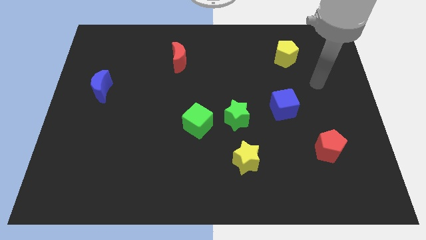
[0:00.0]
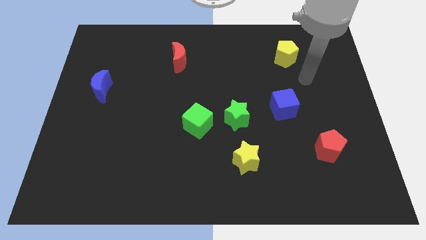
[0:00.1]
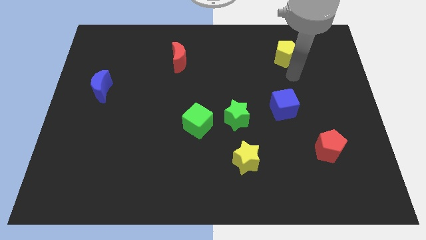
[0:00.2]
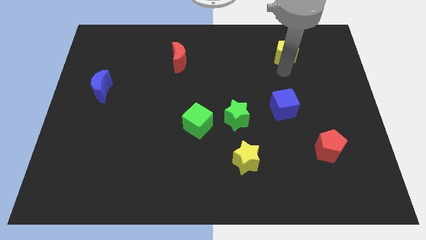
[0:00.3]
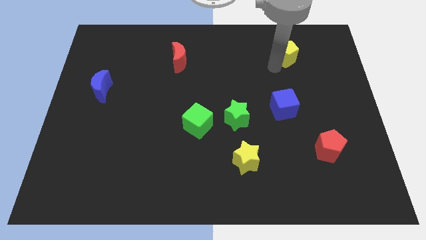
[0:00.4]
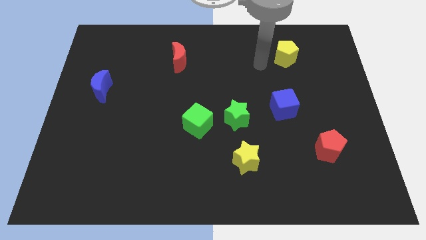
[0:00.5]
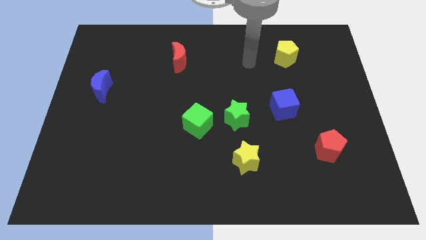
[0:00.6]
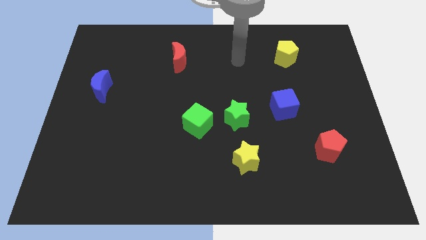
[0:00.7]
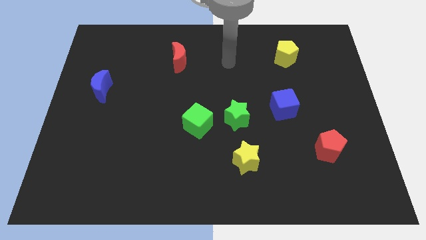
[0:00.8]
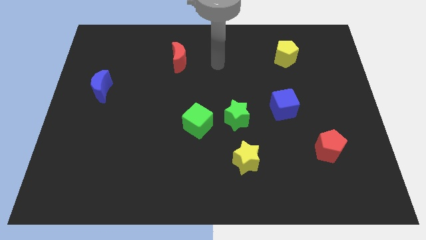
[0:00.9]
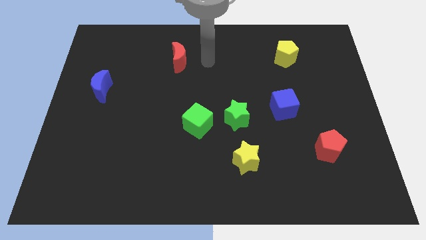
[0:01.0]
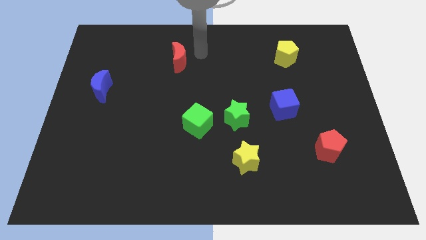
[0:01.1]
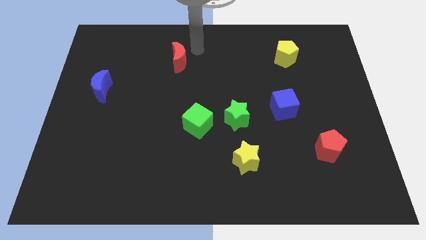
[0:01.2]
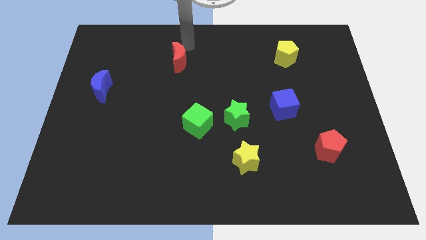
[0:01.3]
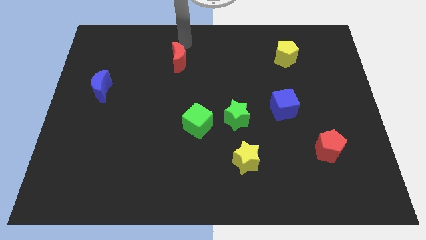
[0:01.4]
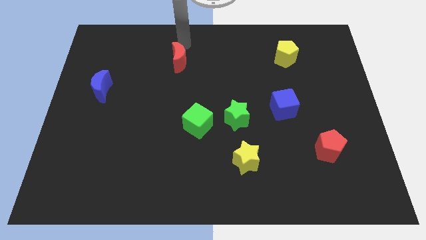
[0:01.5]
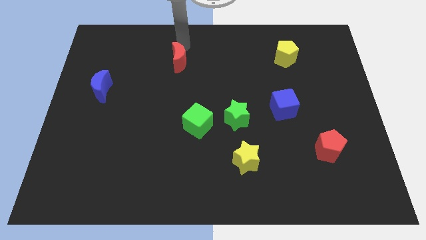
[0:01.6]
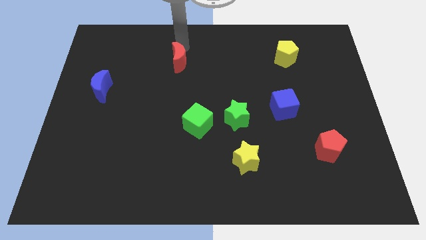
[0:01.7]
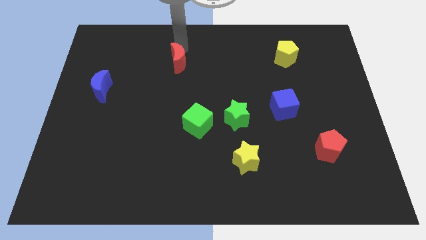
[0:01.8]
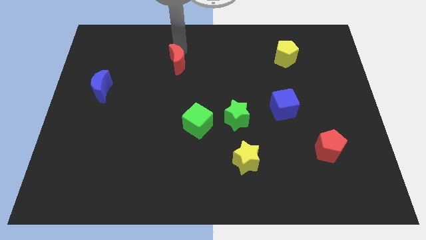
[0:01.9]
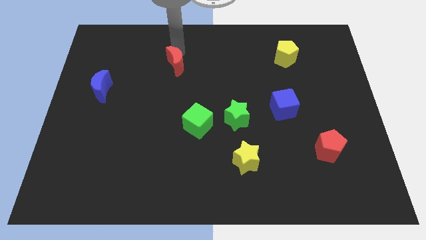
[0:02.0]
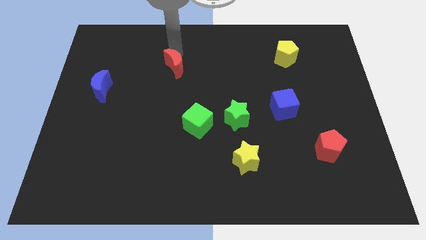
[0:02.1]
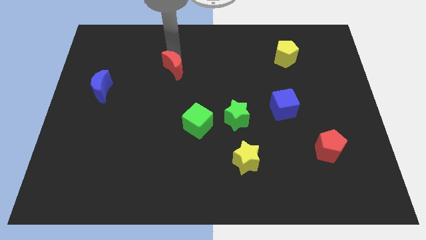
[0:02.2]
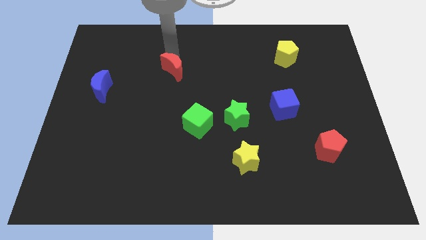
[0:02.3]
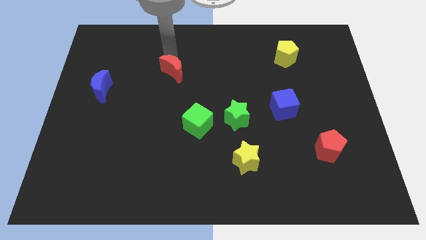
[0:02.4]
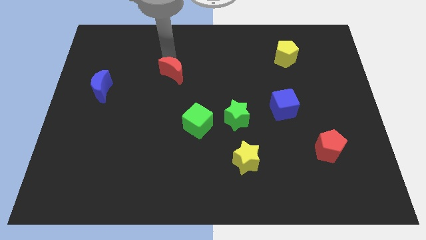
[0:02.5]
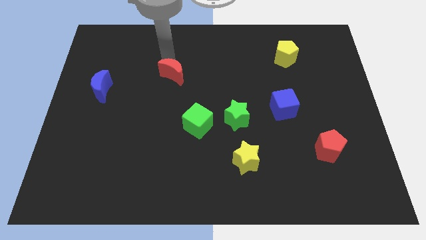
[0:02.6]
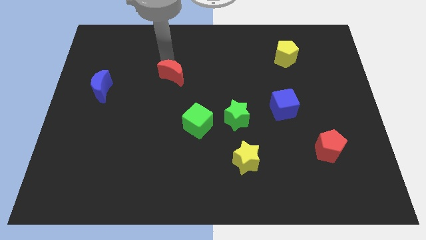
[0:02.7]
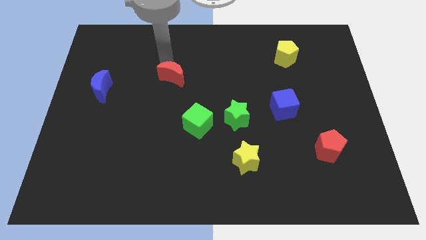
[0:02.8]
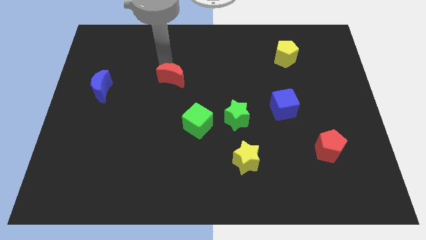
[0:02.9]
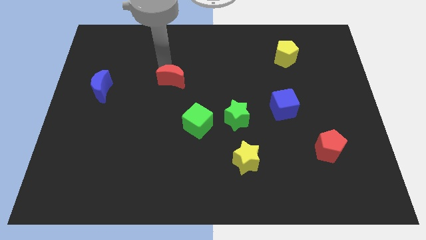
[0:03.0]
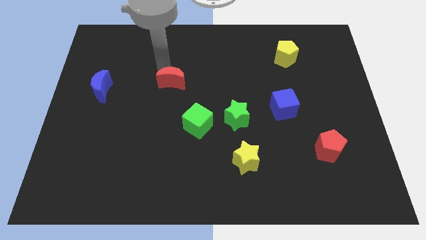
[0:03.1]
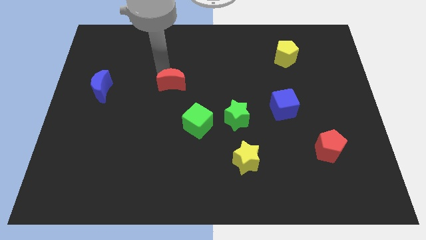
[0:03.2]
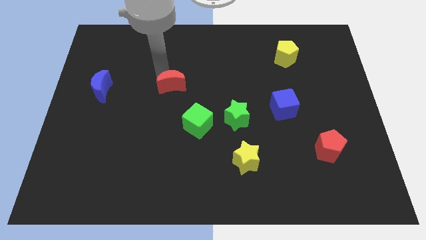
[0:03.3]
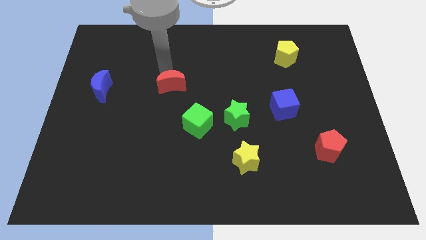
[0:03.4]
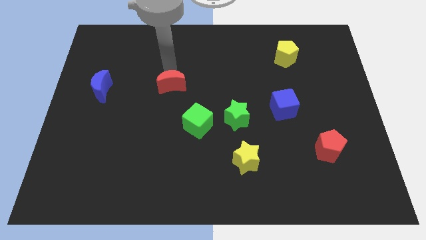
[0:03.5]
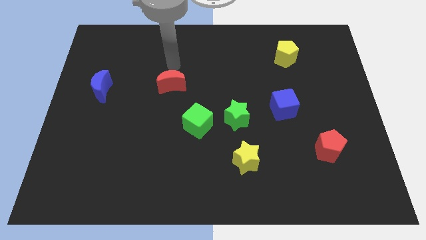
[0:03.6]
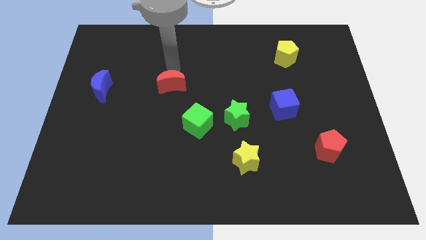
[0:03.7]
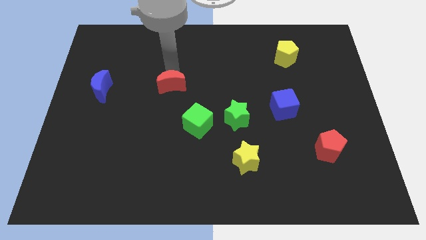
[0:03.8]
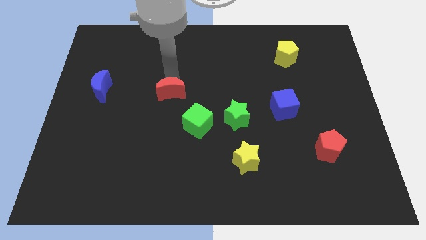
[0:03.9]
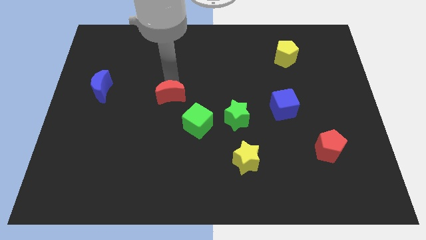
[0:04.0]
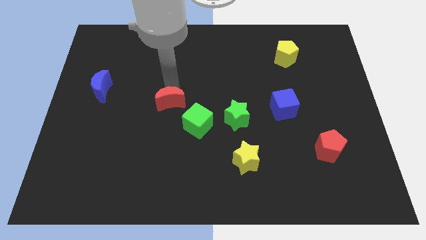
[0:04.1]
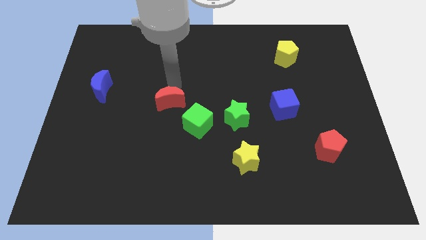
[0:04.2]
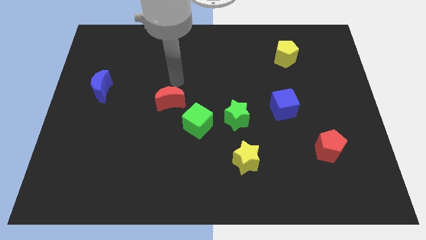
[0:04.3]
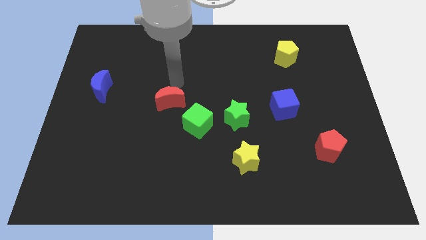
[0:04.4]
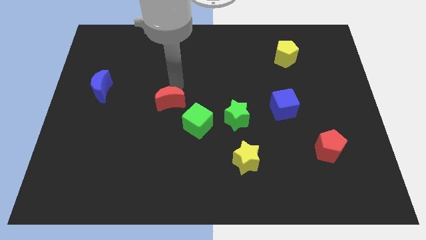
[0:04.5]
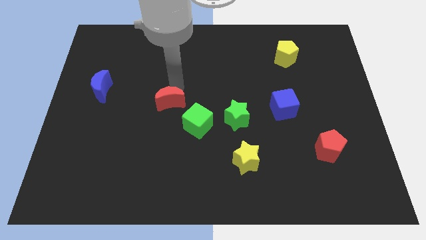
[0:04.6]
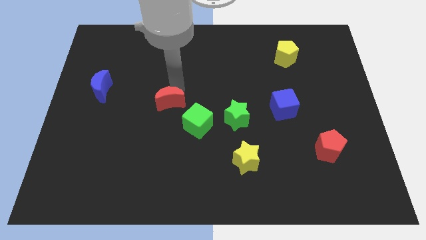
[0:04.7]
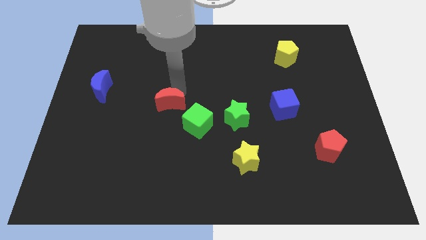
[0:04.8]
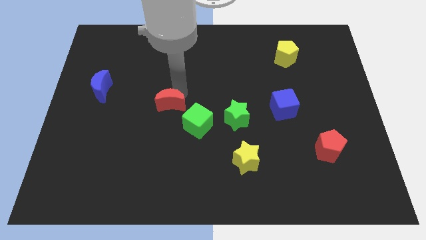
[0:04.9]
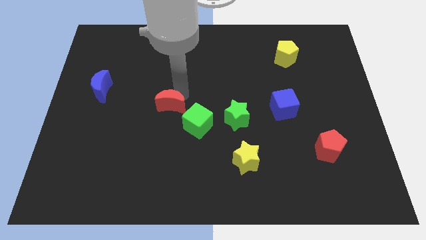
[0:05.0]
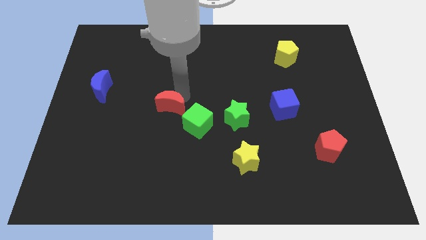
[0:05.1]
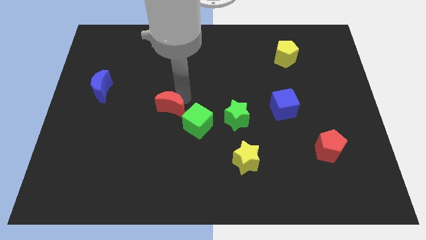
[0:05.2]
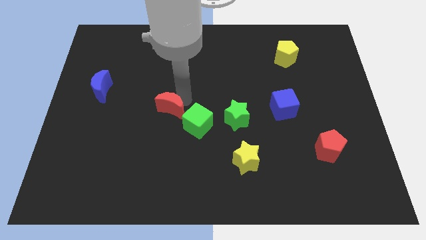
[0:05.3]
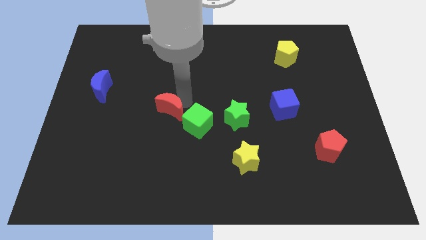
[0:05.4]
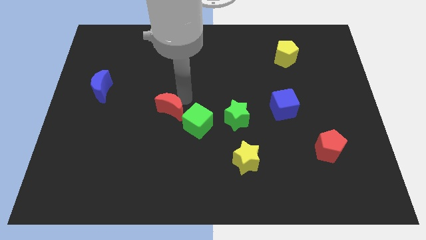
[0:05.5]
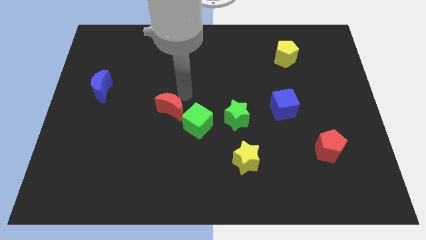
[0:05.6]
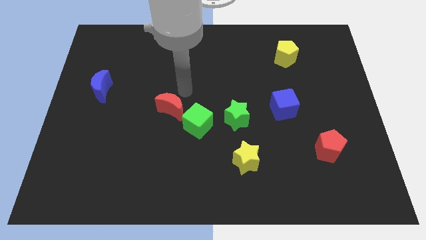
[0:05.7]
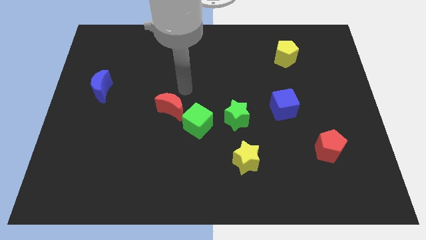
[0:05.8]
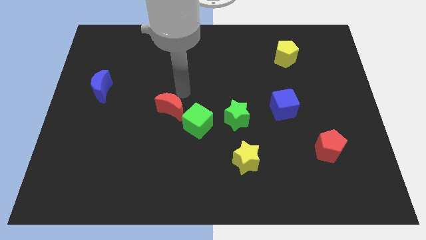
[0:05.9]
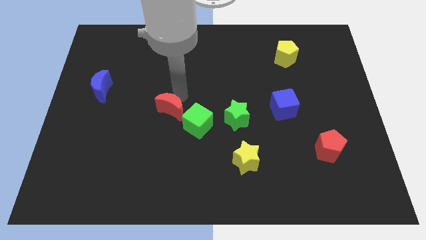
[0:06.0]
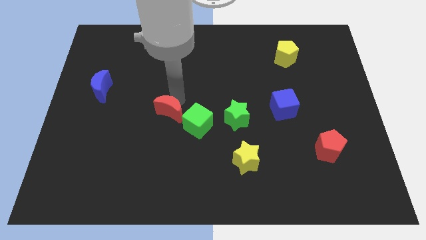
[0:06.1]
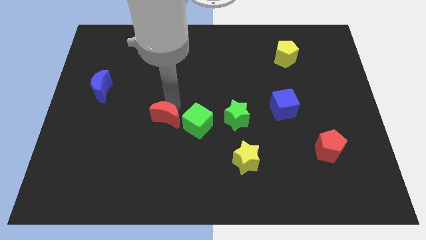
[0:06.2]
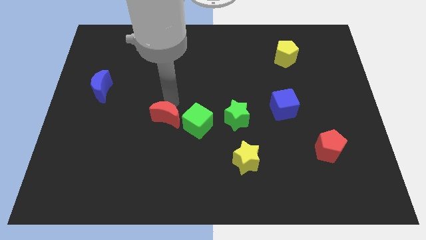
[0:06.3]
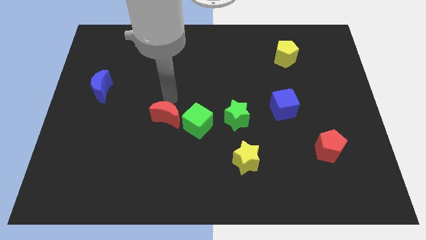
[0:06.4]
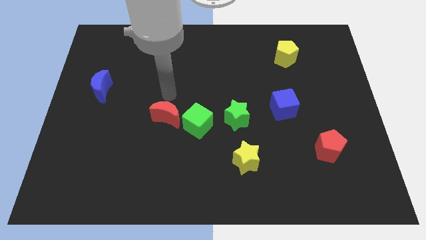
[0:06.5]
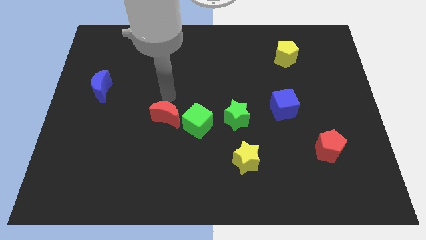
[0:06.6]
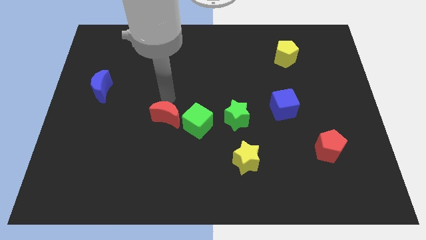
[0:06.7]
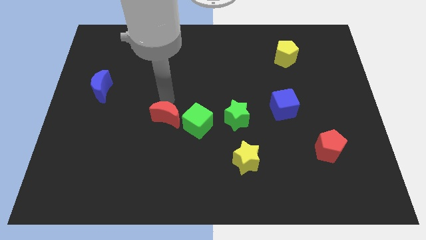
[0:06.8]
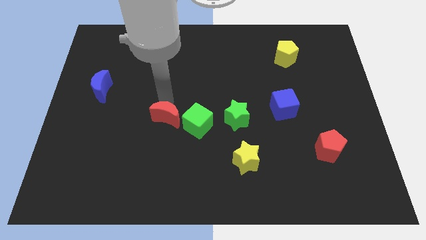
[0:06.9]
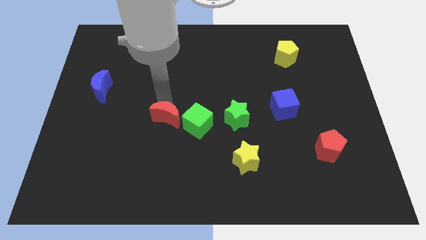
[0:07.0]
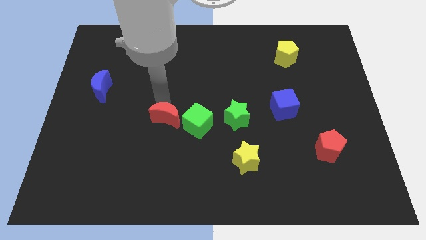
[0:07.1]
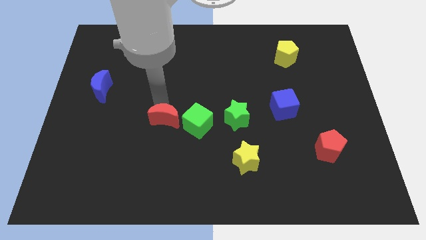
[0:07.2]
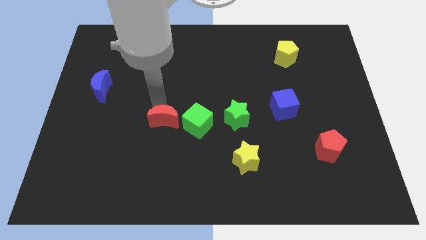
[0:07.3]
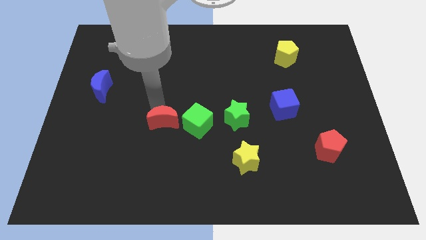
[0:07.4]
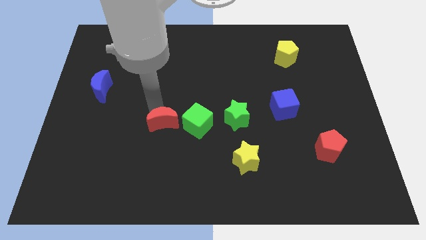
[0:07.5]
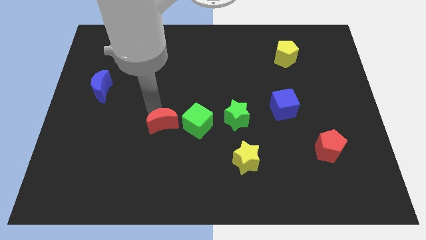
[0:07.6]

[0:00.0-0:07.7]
move the red moon down
